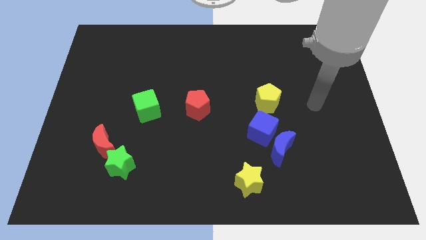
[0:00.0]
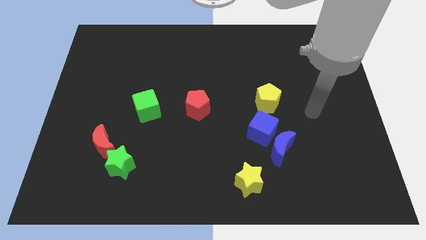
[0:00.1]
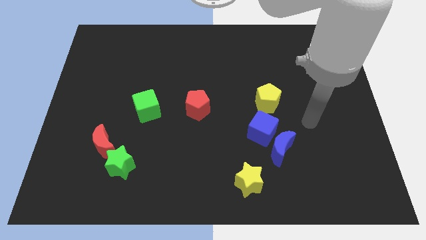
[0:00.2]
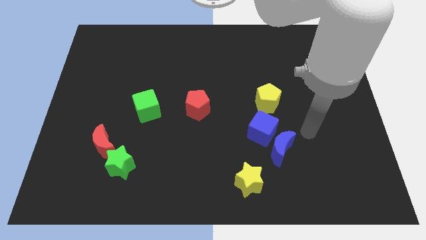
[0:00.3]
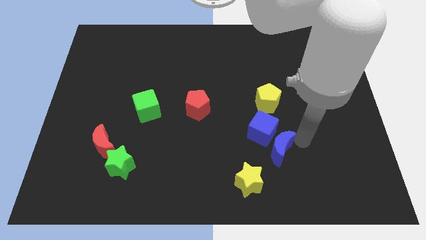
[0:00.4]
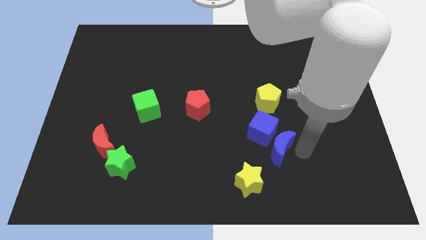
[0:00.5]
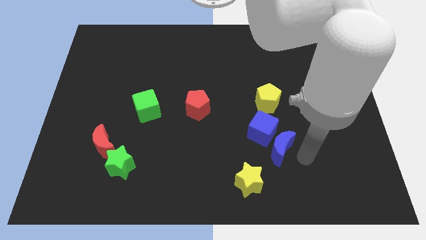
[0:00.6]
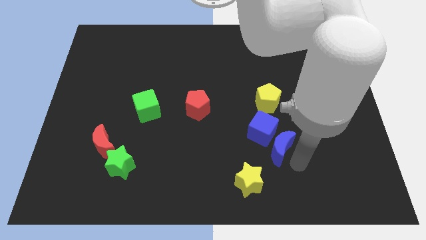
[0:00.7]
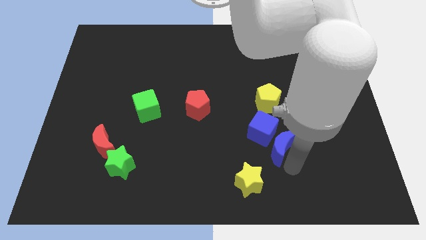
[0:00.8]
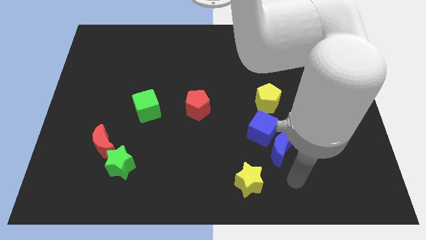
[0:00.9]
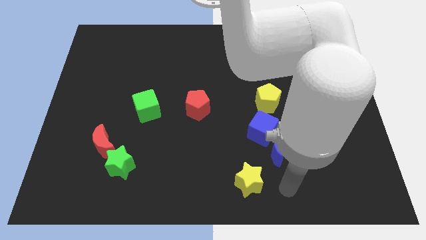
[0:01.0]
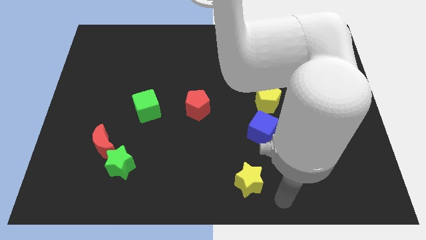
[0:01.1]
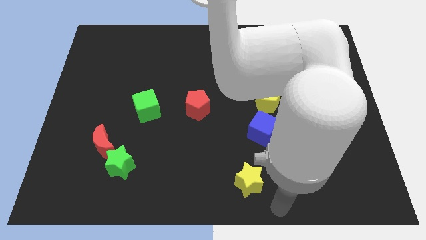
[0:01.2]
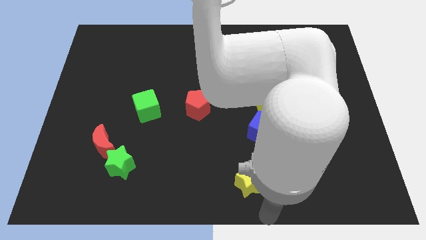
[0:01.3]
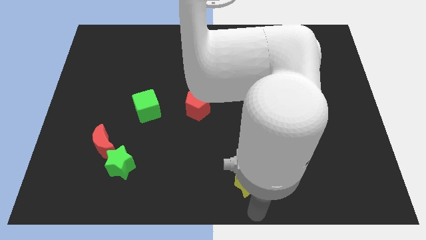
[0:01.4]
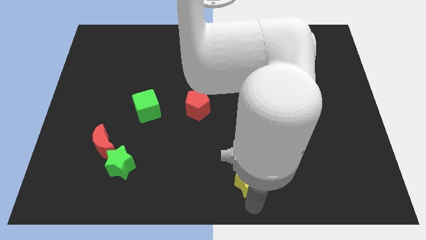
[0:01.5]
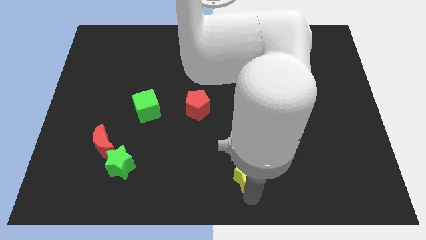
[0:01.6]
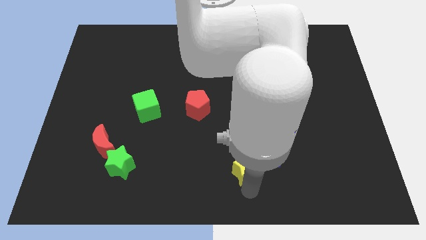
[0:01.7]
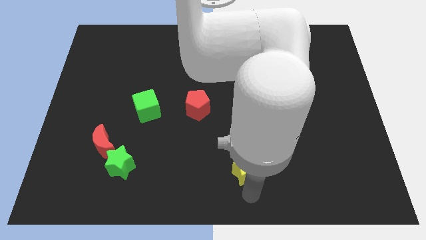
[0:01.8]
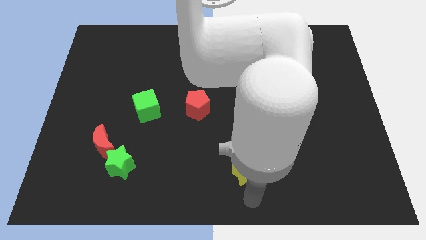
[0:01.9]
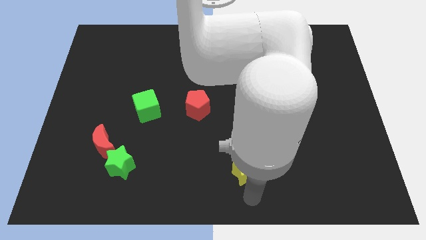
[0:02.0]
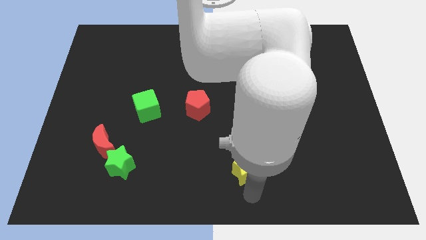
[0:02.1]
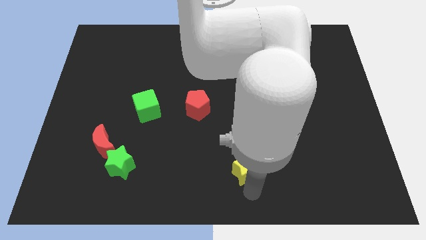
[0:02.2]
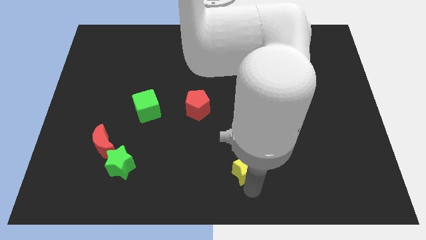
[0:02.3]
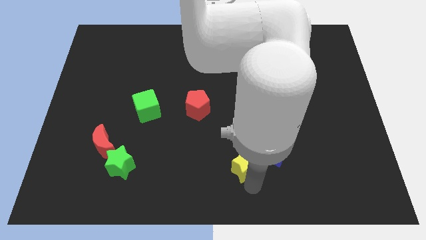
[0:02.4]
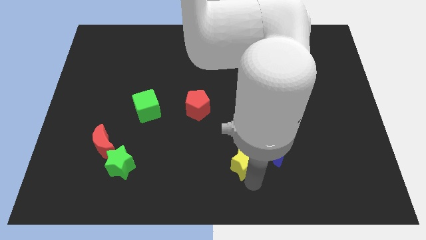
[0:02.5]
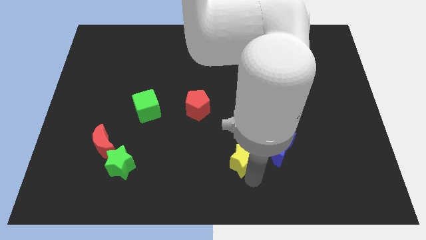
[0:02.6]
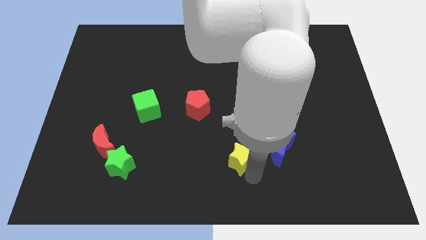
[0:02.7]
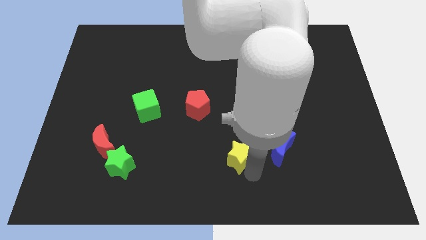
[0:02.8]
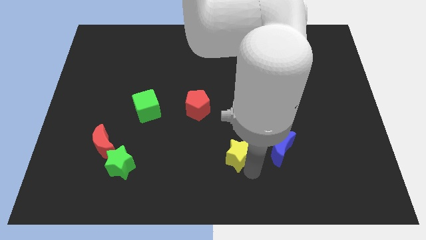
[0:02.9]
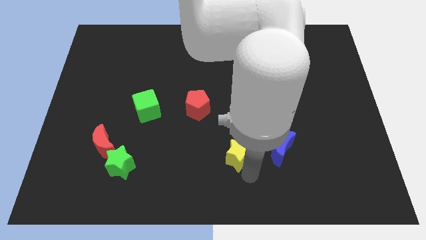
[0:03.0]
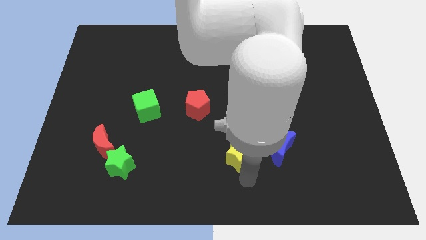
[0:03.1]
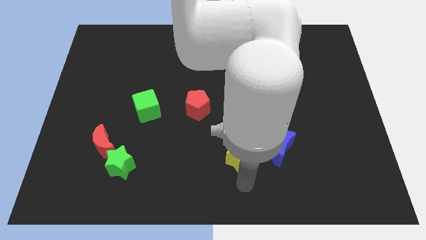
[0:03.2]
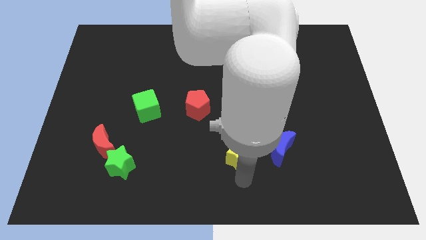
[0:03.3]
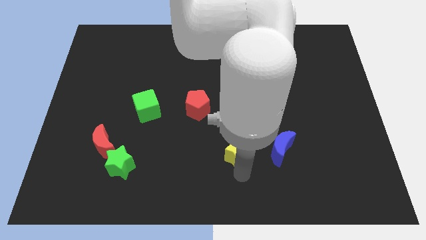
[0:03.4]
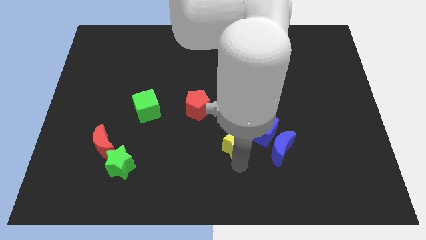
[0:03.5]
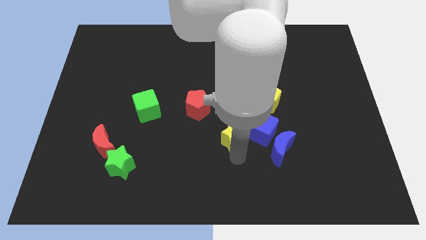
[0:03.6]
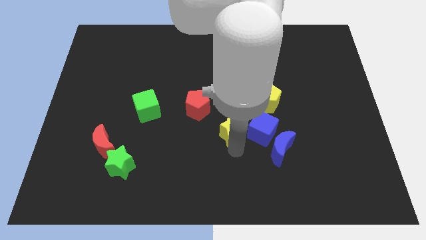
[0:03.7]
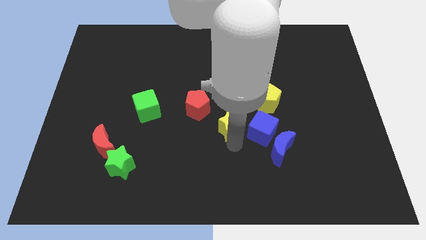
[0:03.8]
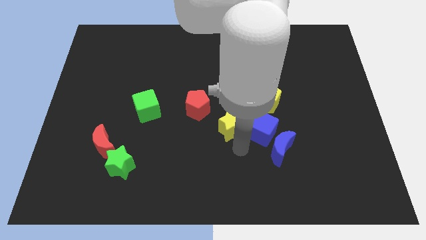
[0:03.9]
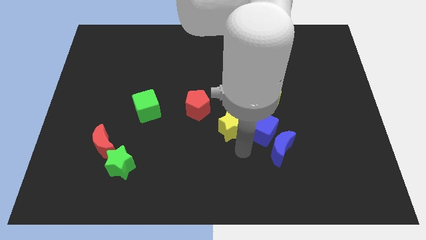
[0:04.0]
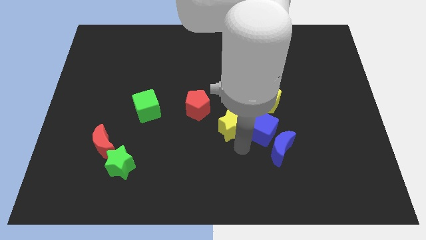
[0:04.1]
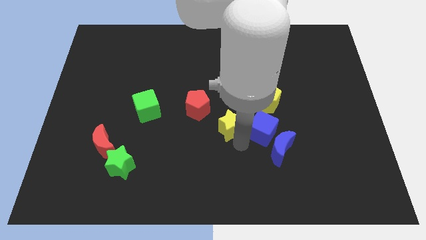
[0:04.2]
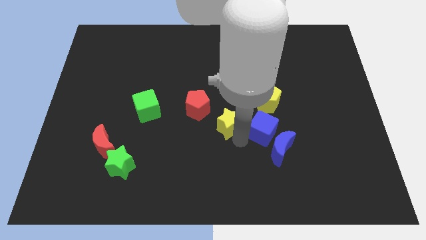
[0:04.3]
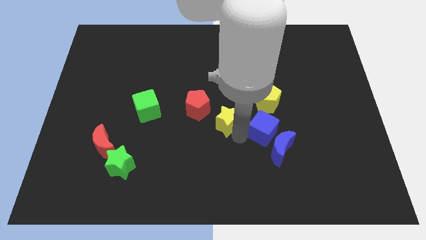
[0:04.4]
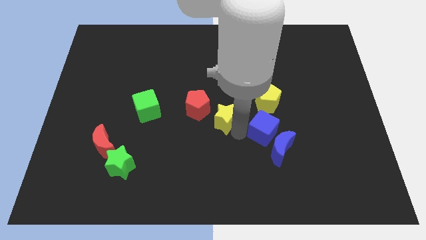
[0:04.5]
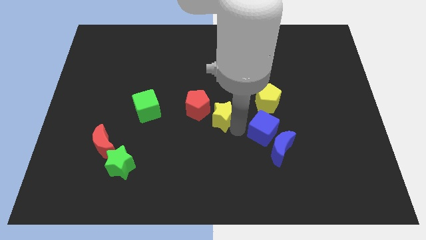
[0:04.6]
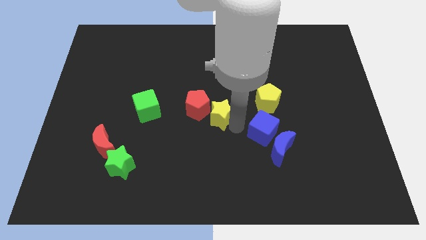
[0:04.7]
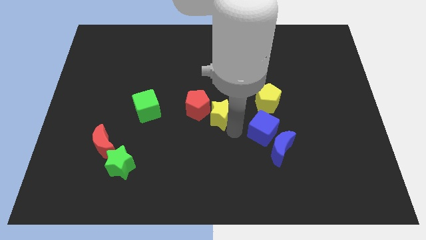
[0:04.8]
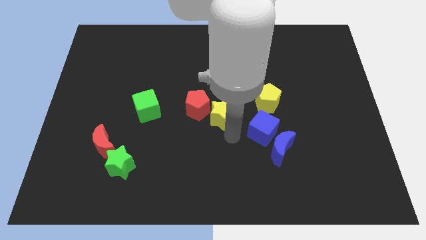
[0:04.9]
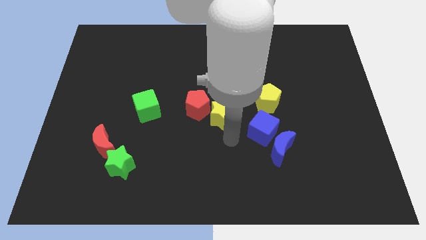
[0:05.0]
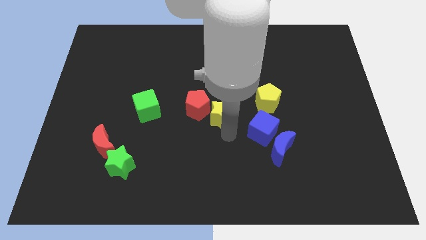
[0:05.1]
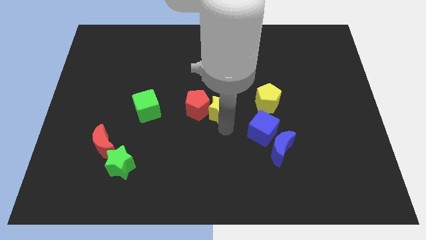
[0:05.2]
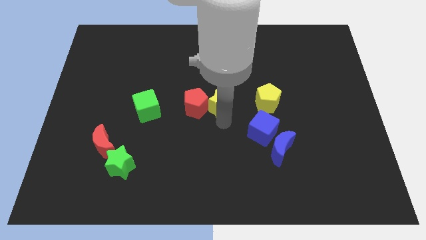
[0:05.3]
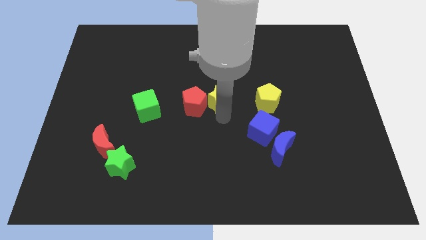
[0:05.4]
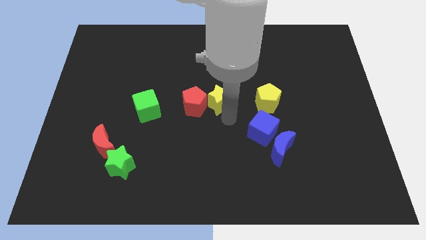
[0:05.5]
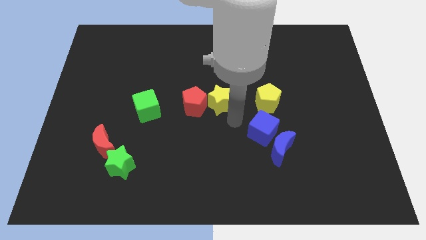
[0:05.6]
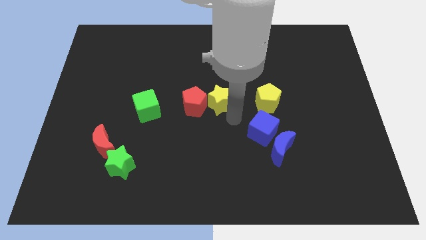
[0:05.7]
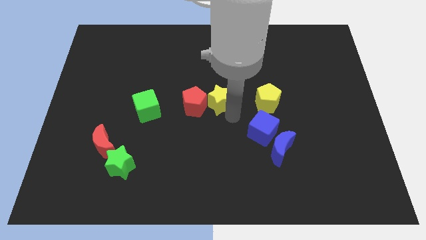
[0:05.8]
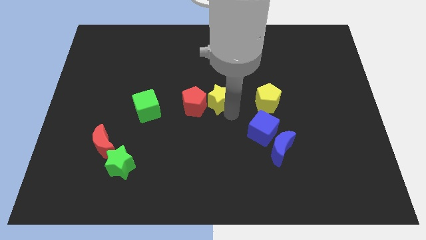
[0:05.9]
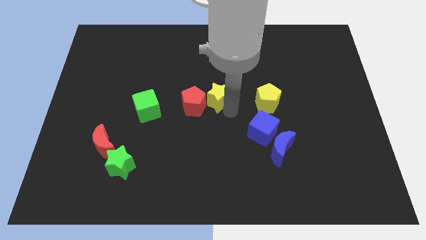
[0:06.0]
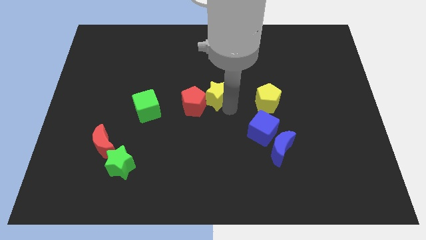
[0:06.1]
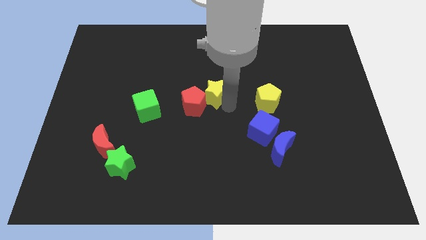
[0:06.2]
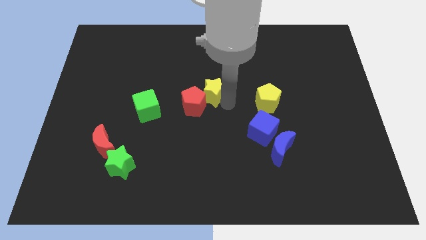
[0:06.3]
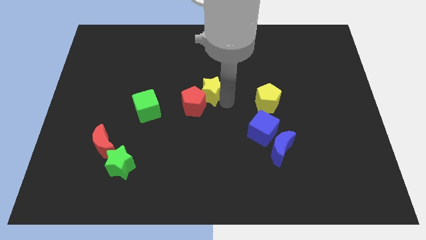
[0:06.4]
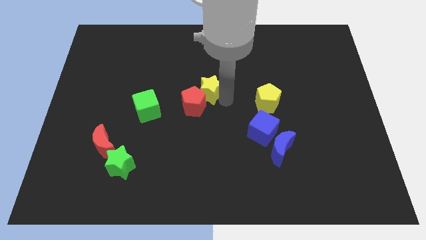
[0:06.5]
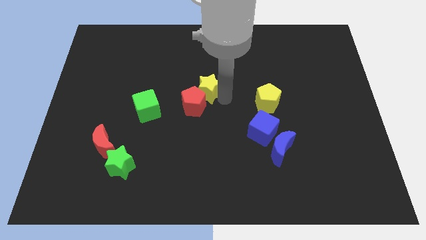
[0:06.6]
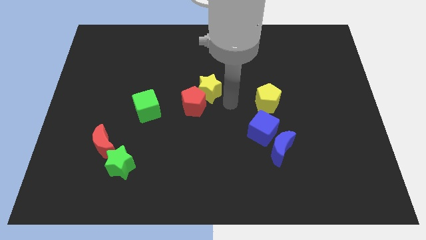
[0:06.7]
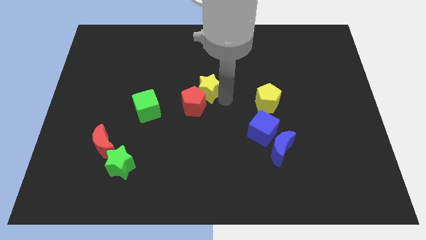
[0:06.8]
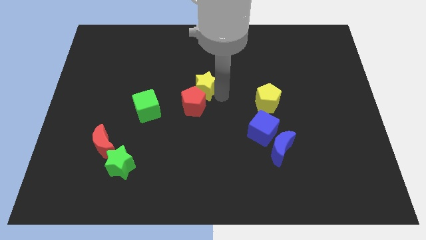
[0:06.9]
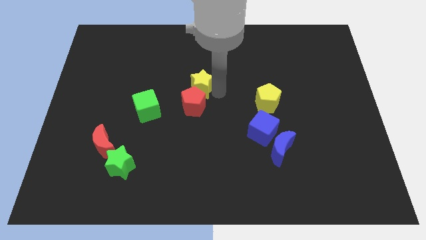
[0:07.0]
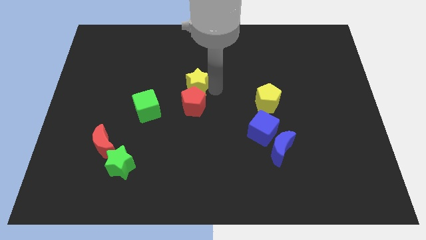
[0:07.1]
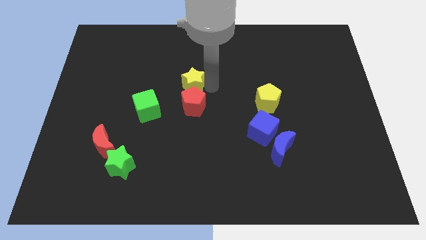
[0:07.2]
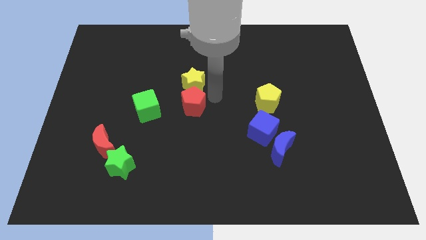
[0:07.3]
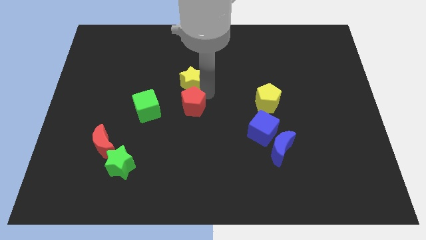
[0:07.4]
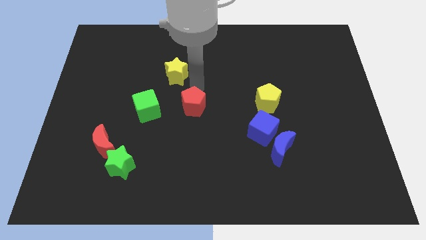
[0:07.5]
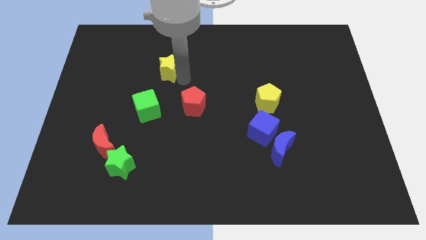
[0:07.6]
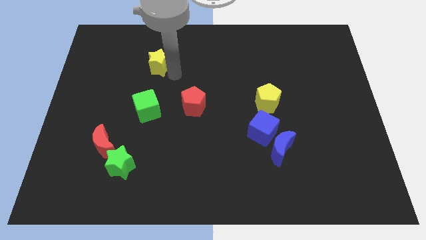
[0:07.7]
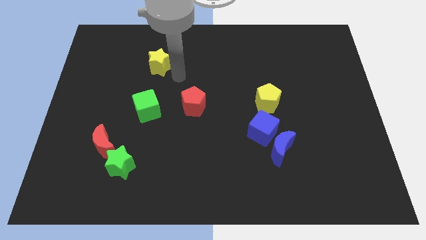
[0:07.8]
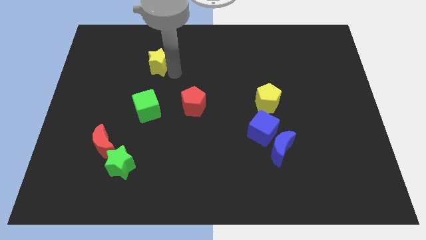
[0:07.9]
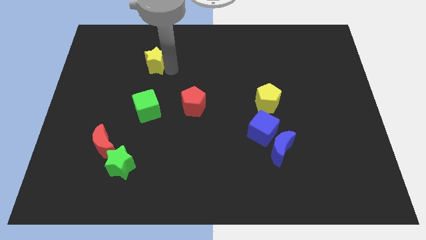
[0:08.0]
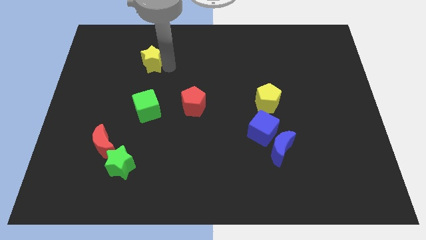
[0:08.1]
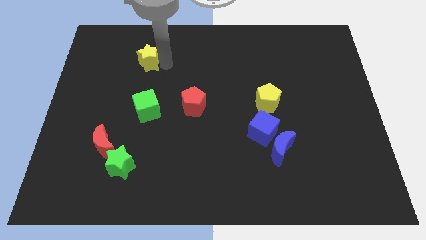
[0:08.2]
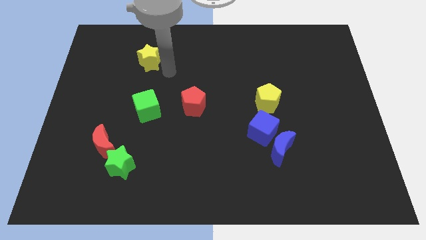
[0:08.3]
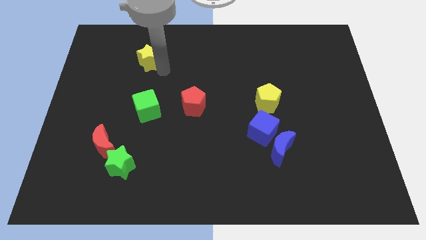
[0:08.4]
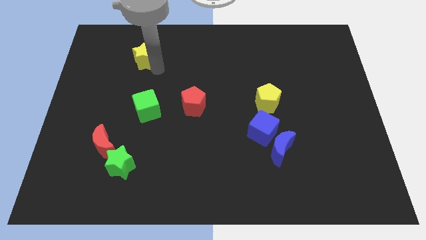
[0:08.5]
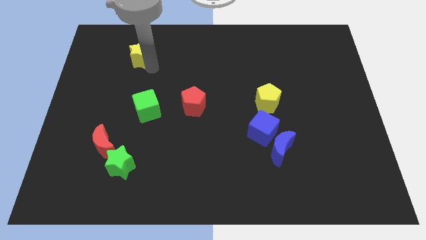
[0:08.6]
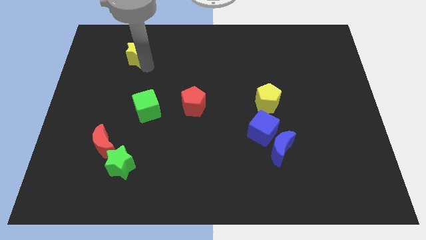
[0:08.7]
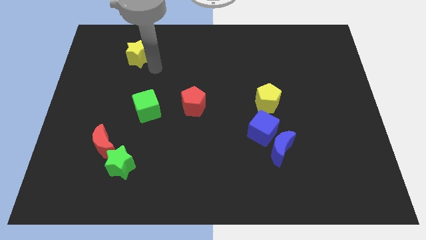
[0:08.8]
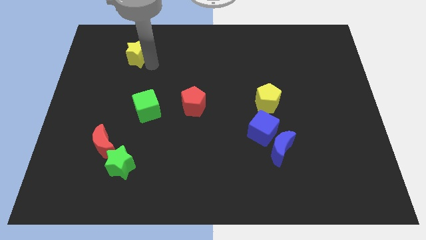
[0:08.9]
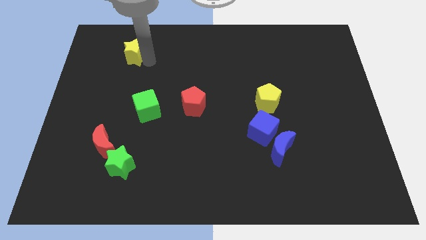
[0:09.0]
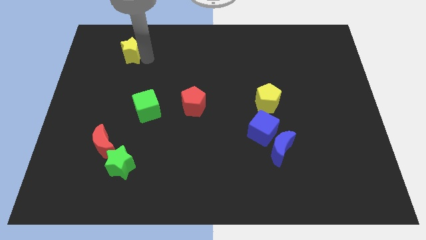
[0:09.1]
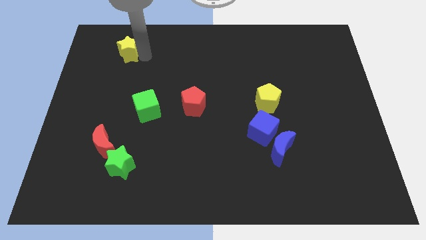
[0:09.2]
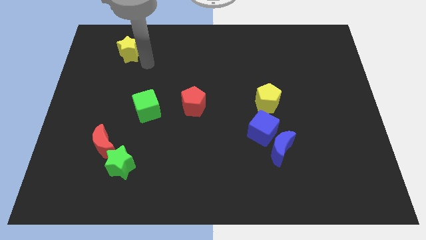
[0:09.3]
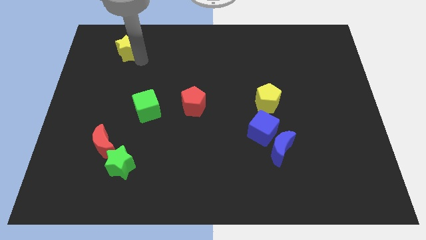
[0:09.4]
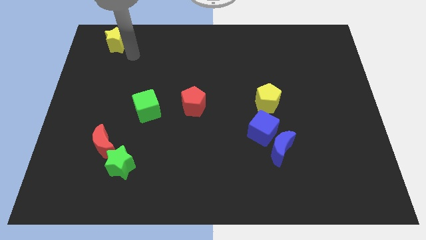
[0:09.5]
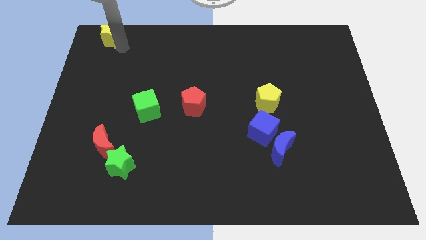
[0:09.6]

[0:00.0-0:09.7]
slide the yellow star to the top left of the board
